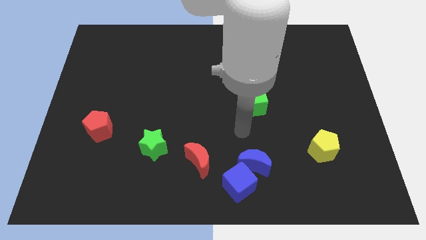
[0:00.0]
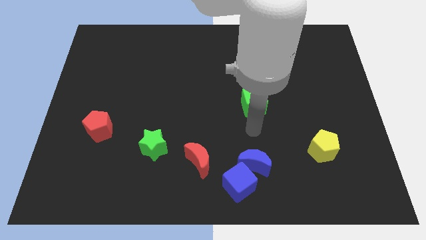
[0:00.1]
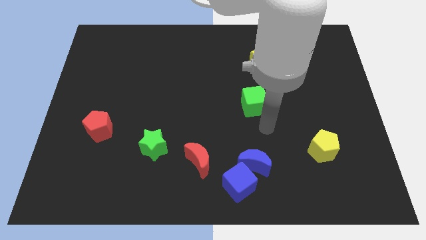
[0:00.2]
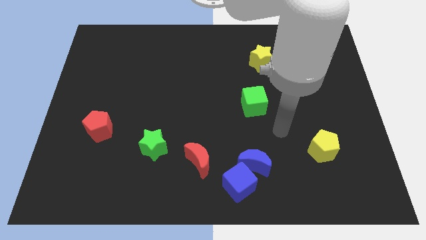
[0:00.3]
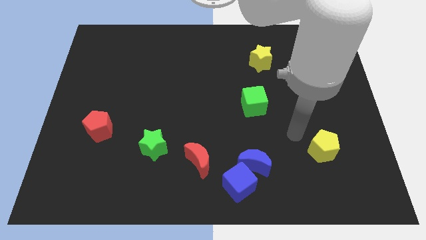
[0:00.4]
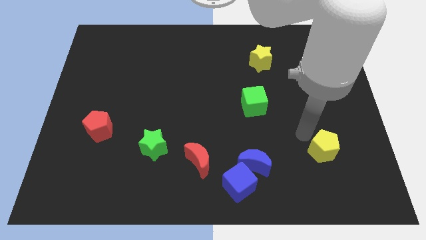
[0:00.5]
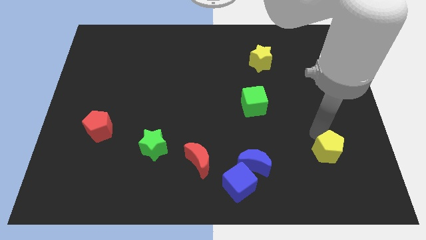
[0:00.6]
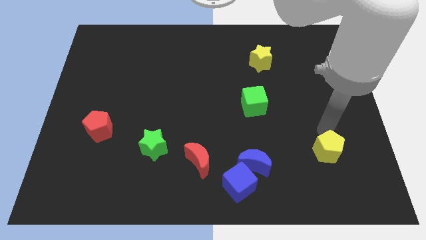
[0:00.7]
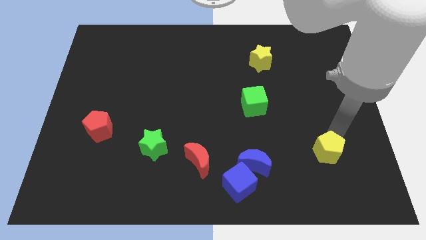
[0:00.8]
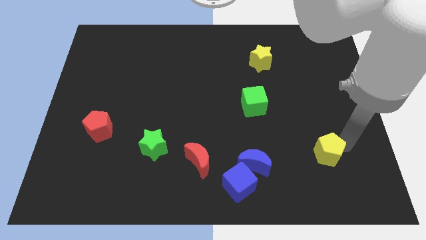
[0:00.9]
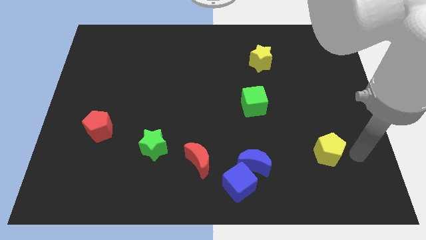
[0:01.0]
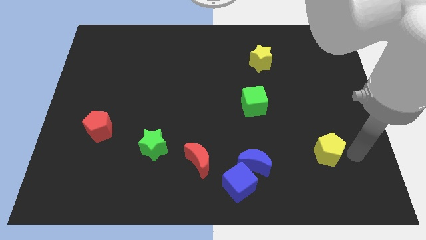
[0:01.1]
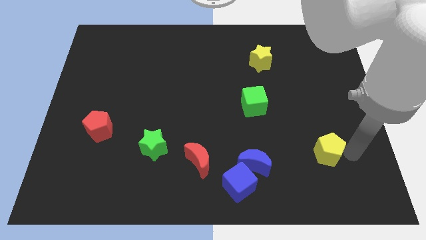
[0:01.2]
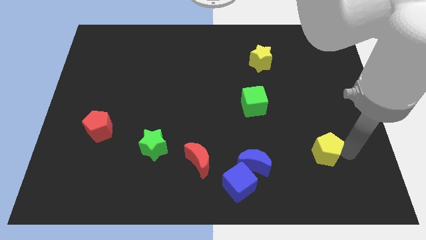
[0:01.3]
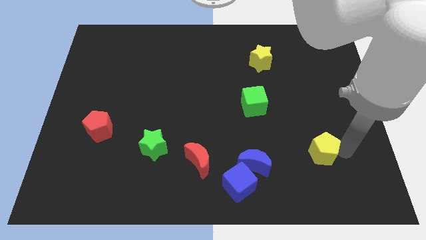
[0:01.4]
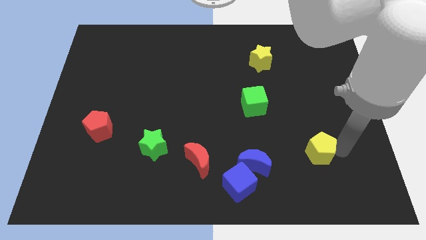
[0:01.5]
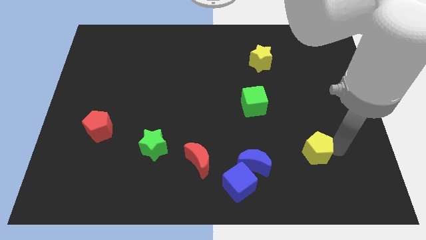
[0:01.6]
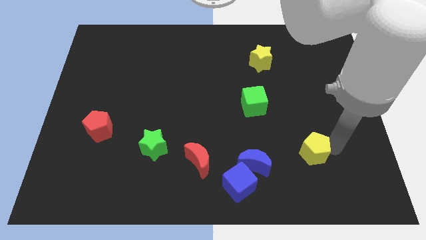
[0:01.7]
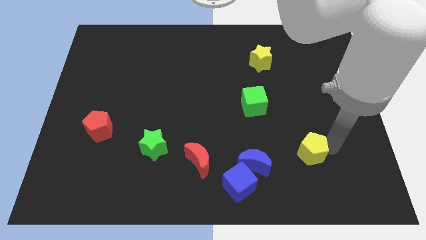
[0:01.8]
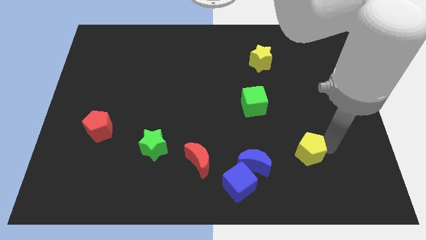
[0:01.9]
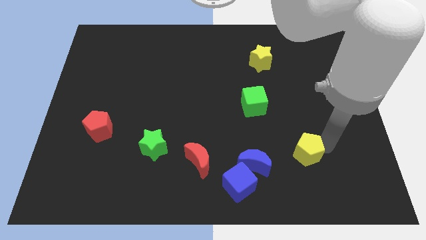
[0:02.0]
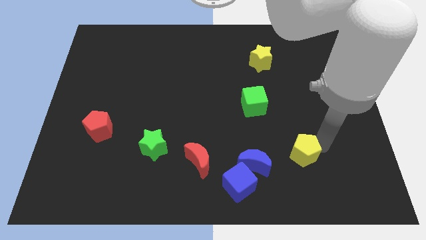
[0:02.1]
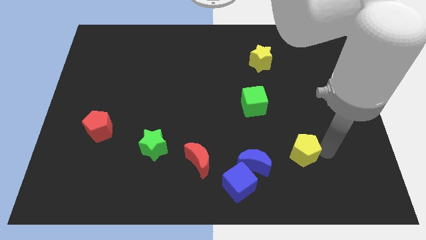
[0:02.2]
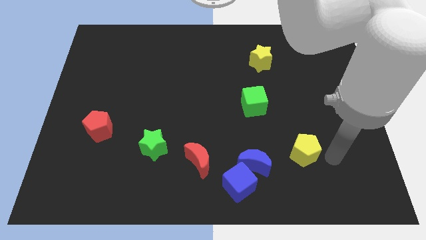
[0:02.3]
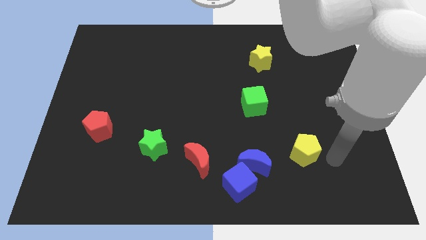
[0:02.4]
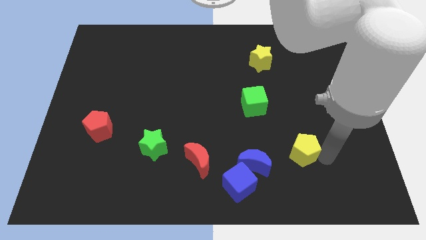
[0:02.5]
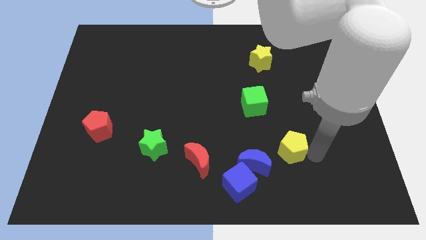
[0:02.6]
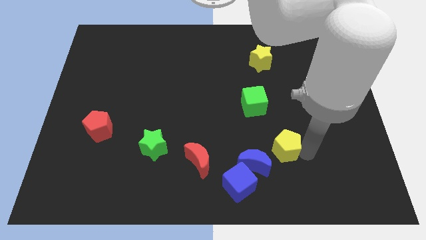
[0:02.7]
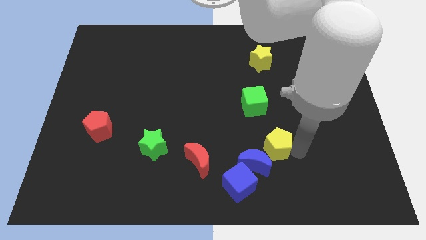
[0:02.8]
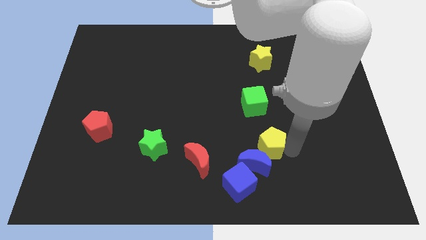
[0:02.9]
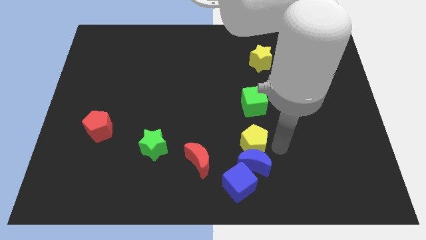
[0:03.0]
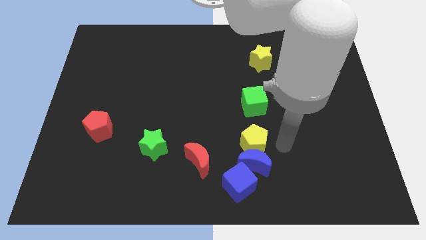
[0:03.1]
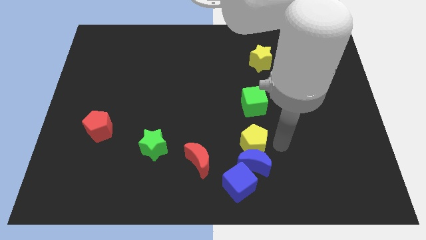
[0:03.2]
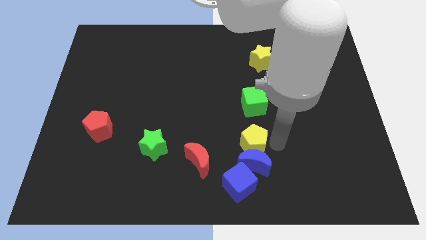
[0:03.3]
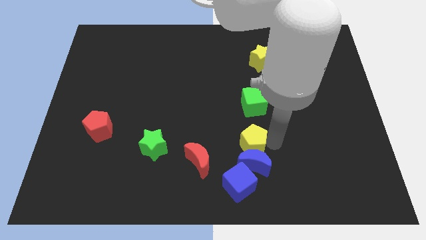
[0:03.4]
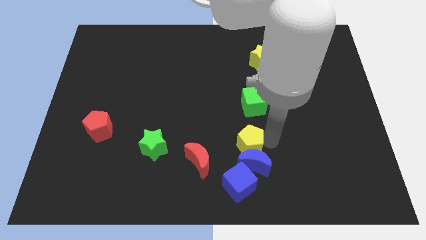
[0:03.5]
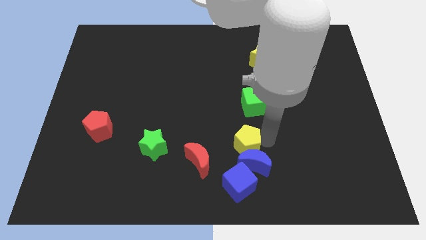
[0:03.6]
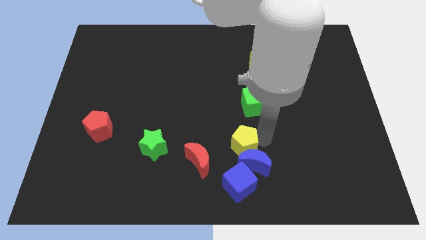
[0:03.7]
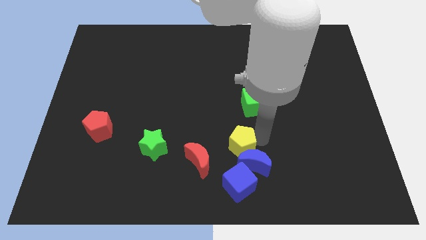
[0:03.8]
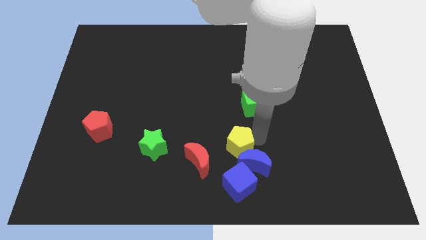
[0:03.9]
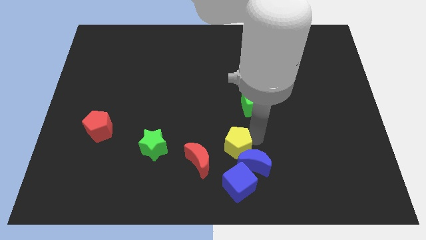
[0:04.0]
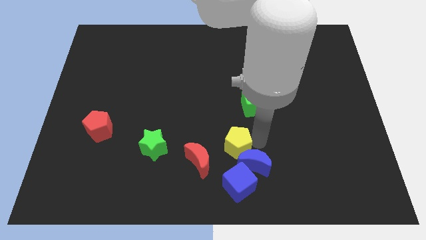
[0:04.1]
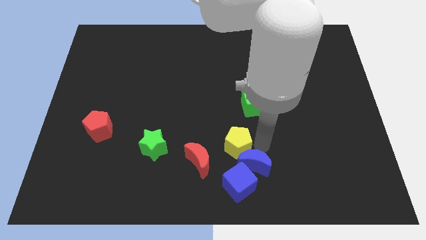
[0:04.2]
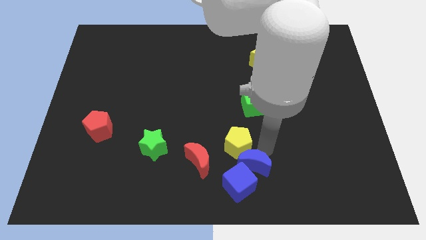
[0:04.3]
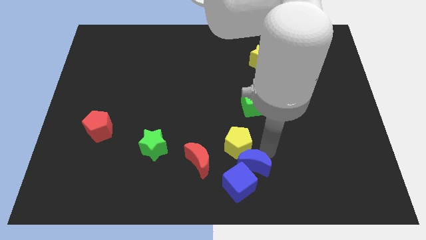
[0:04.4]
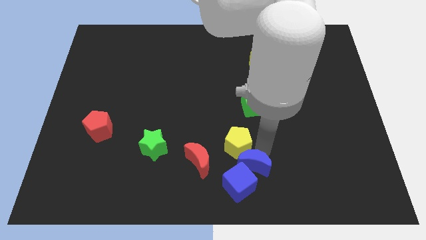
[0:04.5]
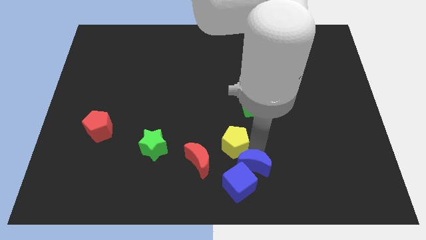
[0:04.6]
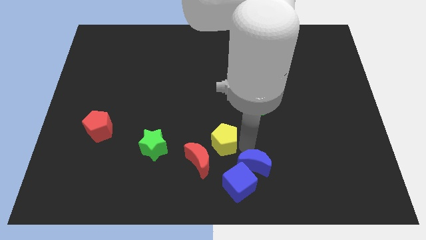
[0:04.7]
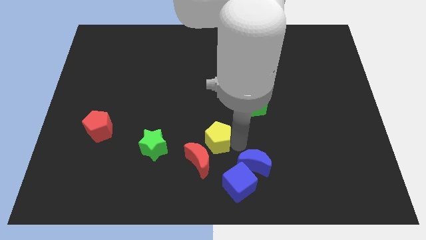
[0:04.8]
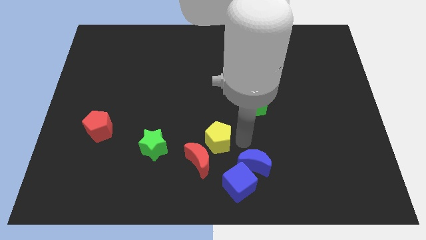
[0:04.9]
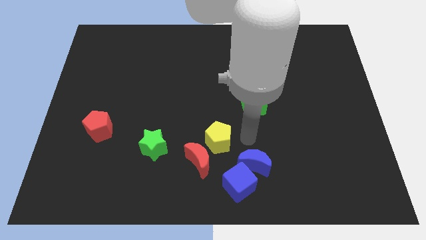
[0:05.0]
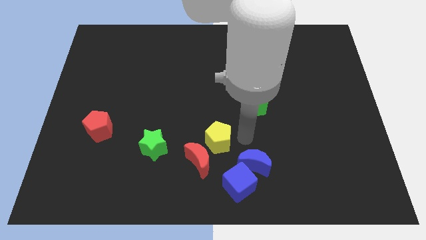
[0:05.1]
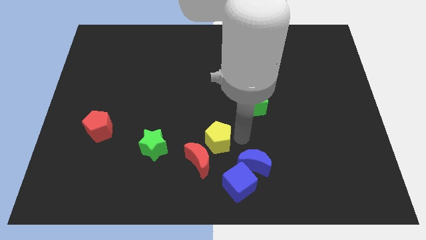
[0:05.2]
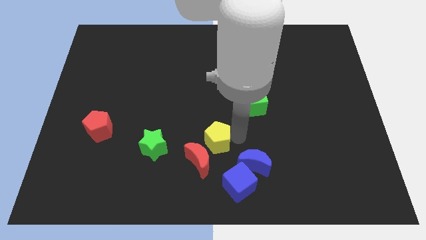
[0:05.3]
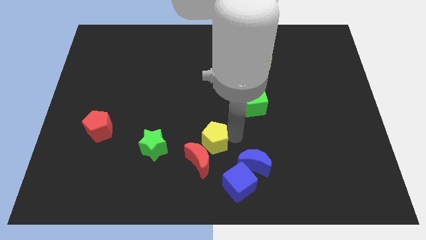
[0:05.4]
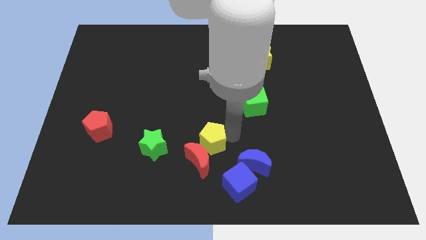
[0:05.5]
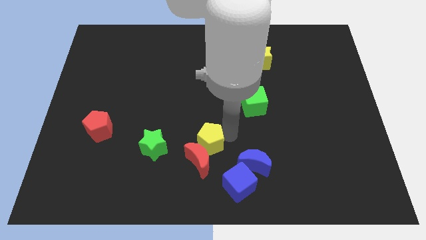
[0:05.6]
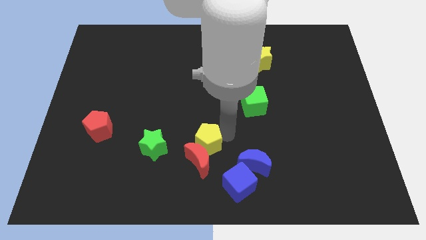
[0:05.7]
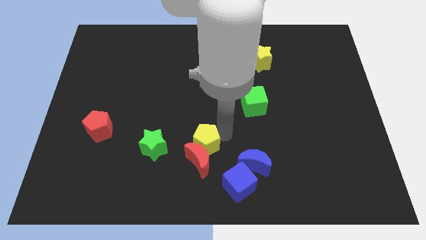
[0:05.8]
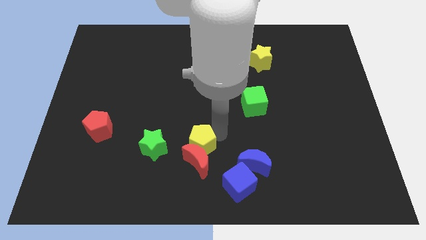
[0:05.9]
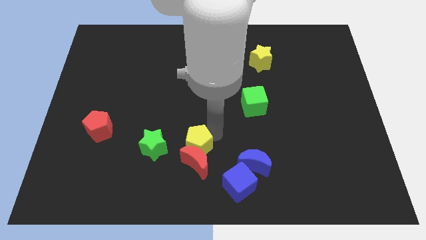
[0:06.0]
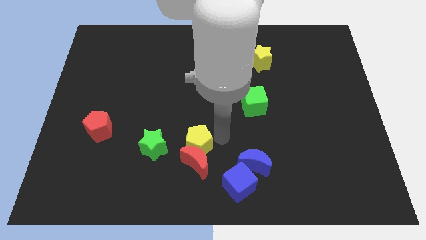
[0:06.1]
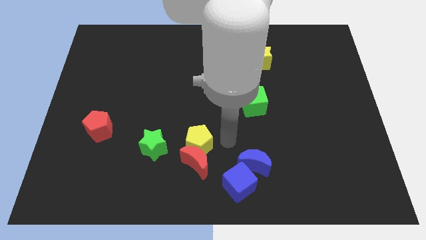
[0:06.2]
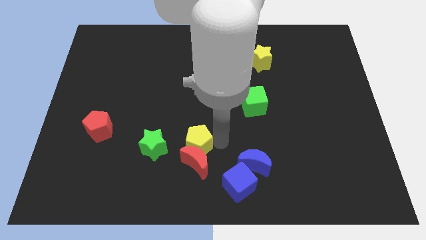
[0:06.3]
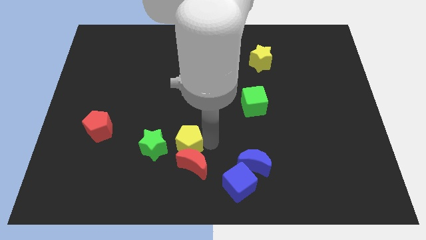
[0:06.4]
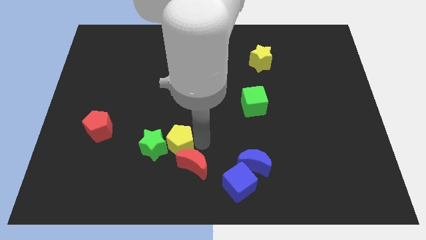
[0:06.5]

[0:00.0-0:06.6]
slide the yellow pentagon close to the green star

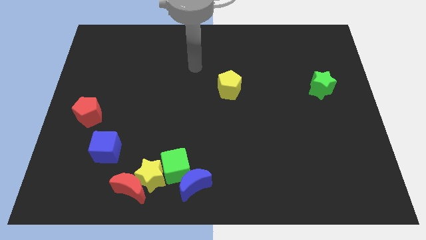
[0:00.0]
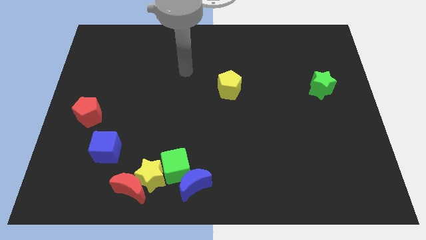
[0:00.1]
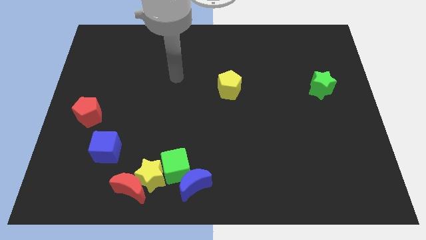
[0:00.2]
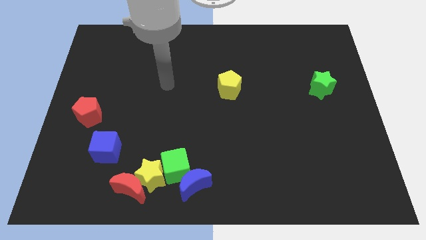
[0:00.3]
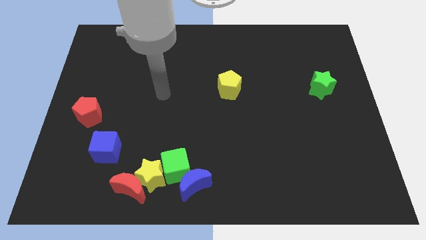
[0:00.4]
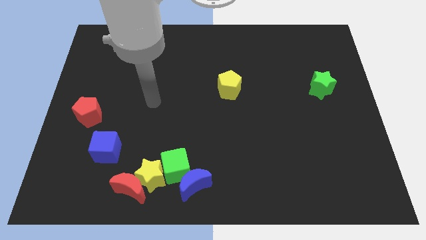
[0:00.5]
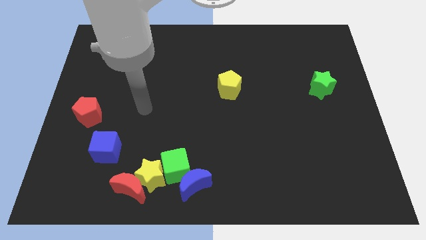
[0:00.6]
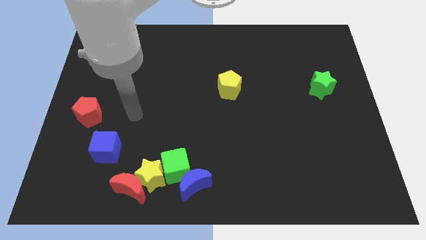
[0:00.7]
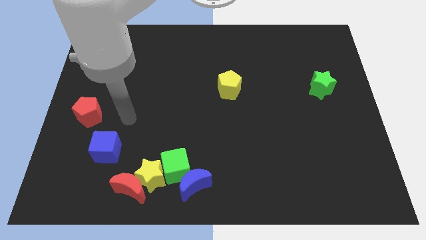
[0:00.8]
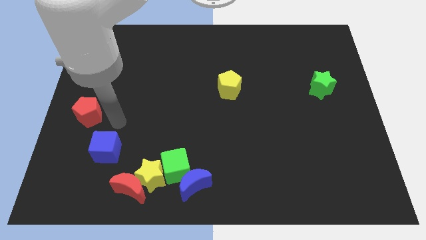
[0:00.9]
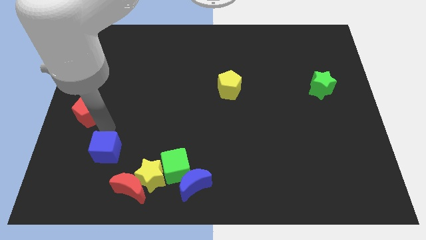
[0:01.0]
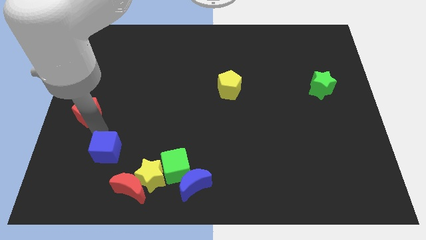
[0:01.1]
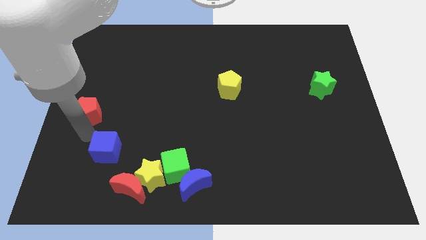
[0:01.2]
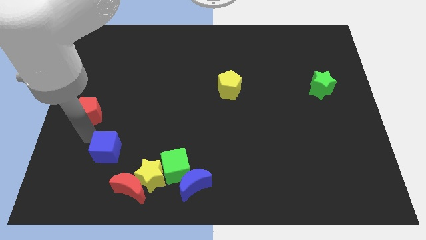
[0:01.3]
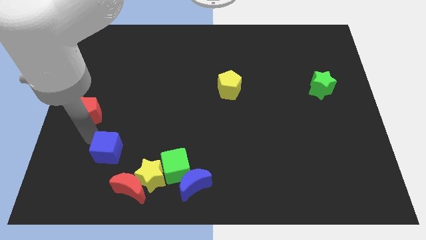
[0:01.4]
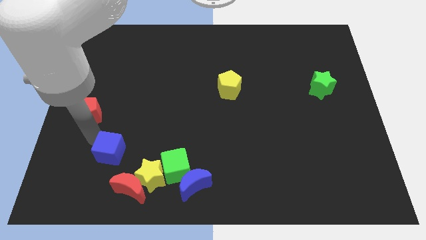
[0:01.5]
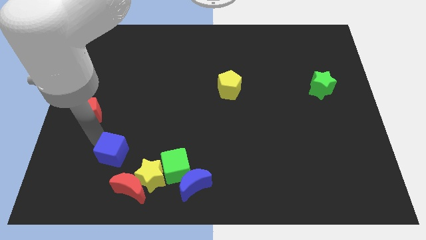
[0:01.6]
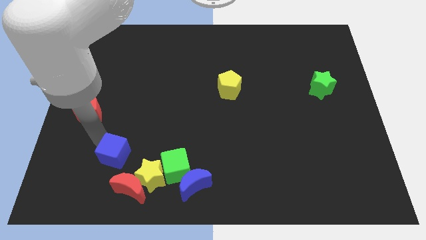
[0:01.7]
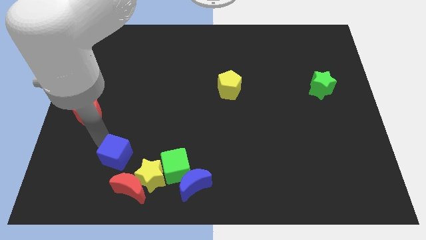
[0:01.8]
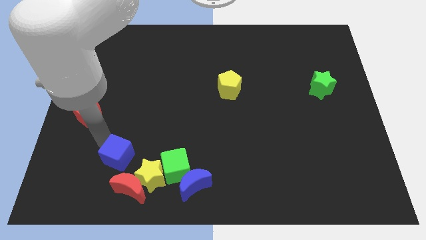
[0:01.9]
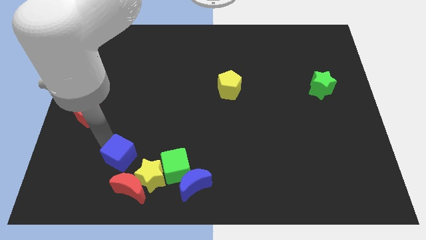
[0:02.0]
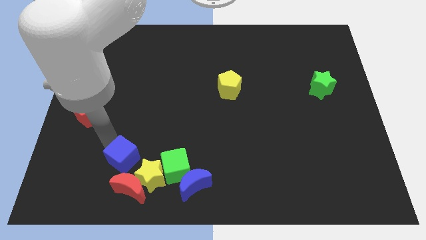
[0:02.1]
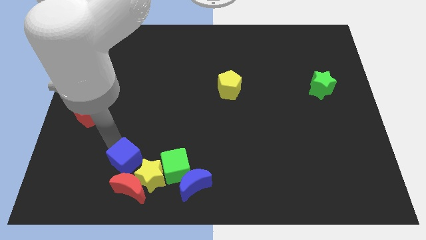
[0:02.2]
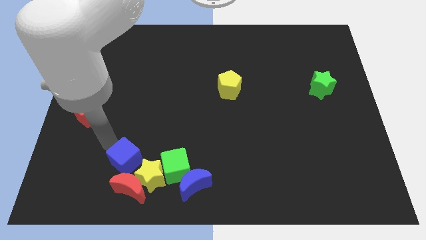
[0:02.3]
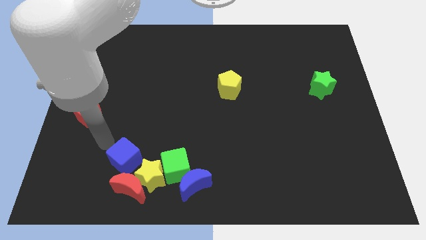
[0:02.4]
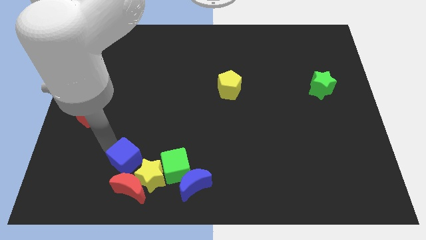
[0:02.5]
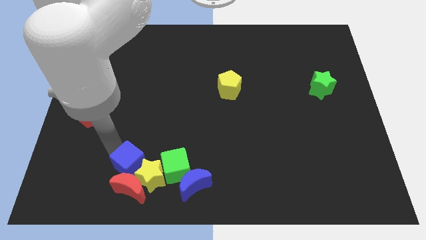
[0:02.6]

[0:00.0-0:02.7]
move the blue cube to the yellow star
